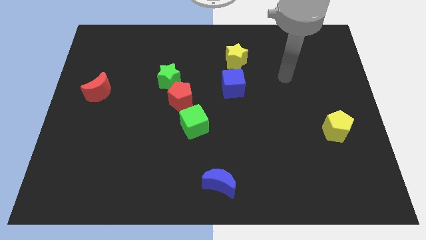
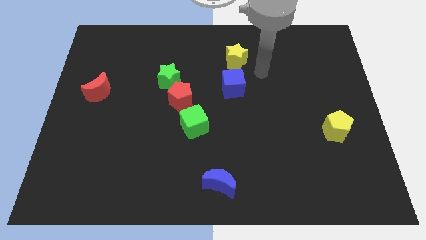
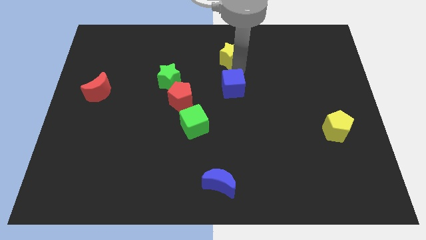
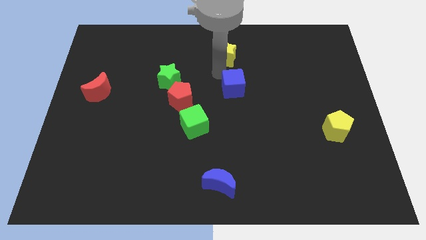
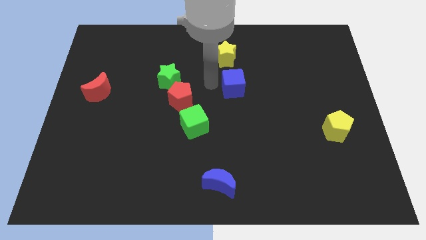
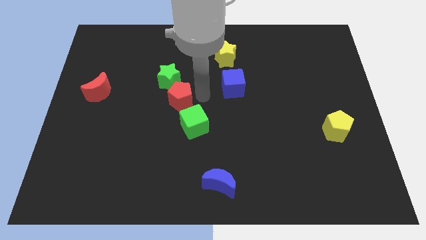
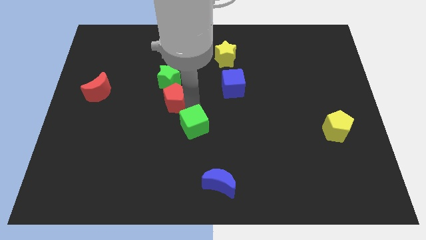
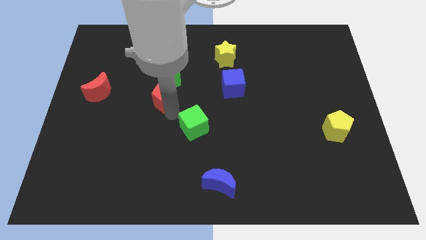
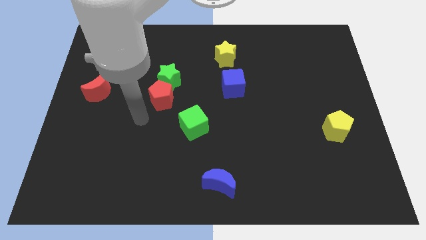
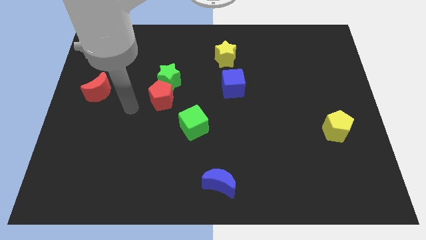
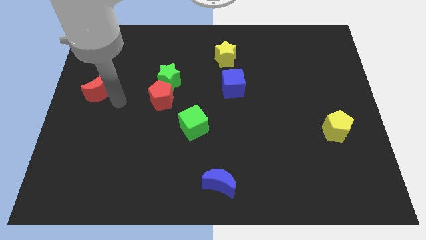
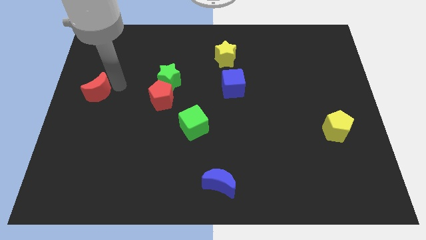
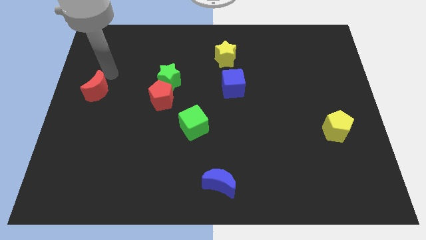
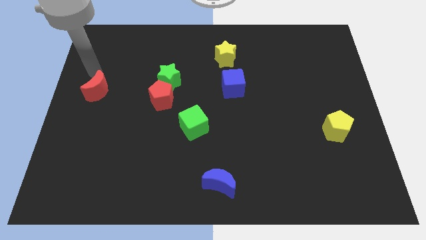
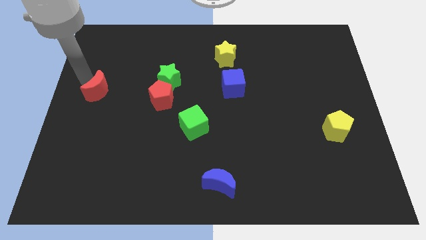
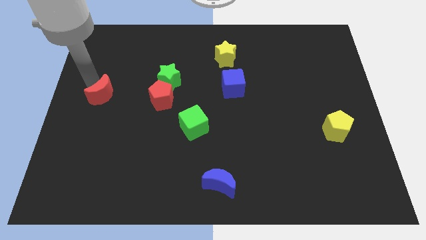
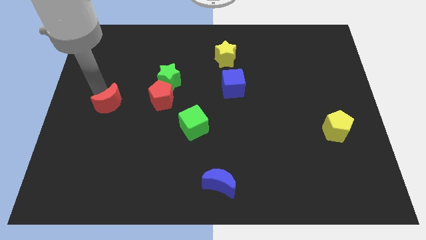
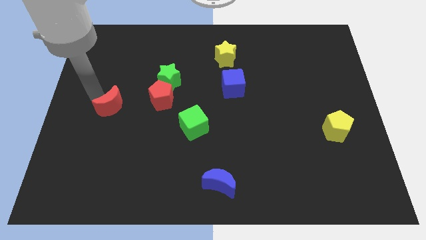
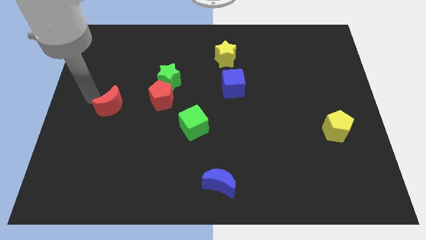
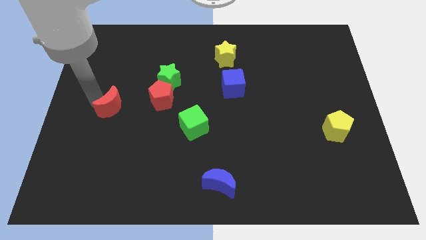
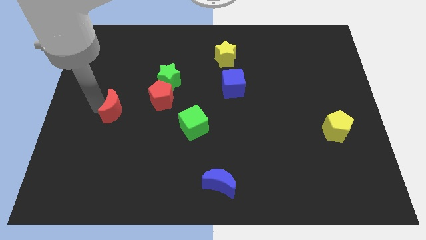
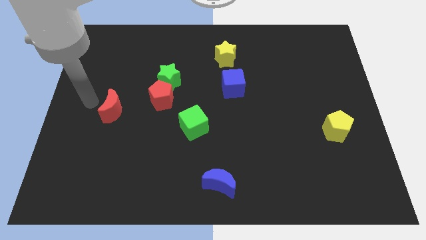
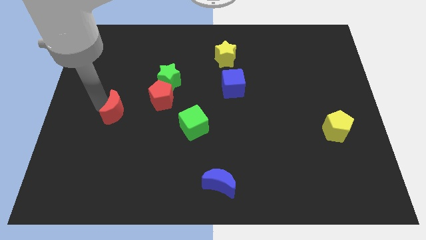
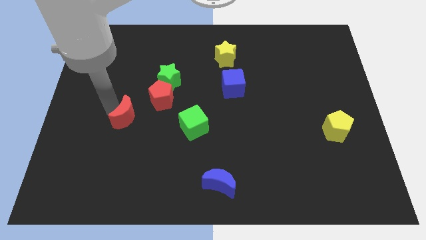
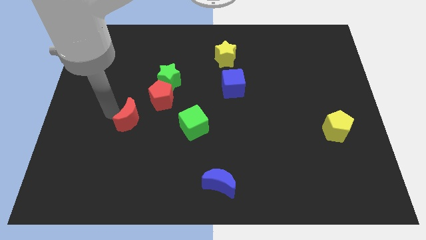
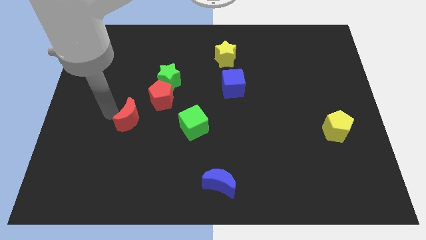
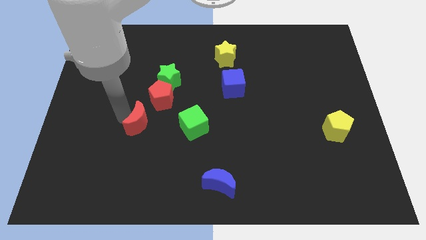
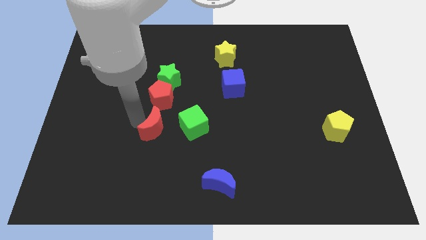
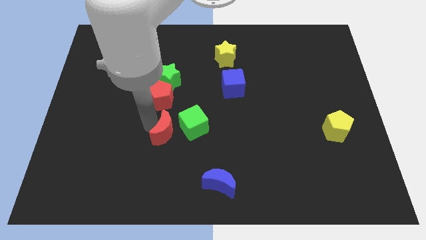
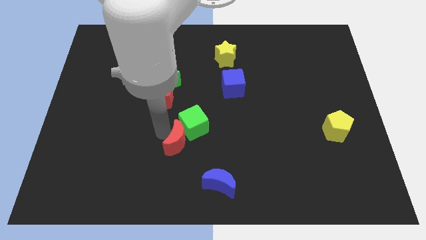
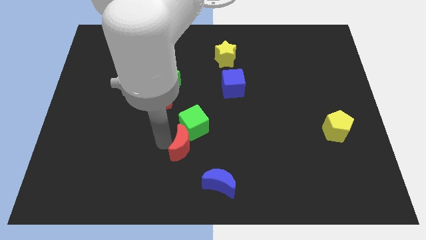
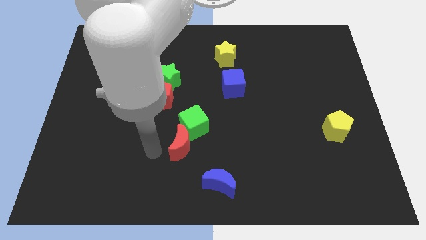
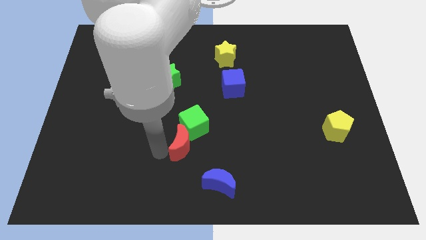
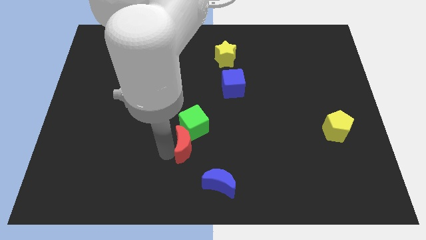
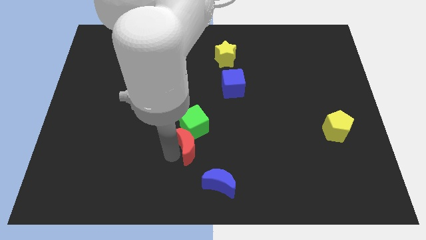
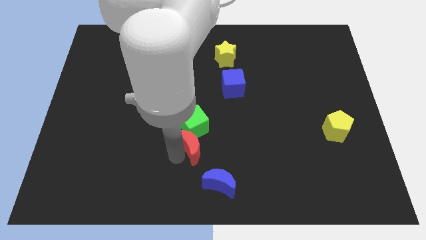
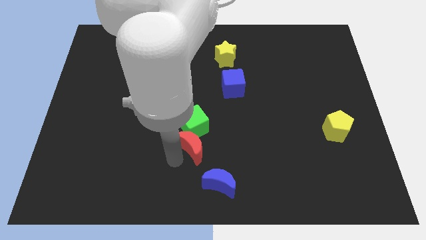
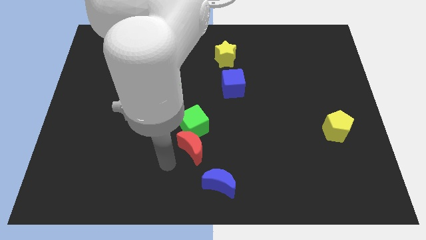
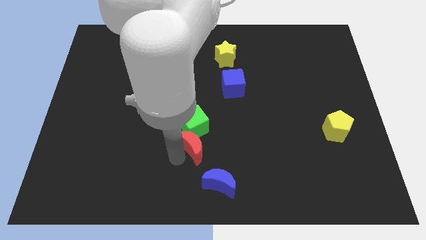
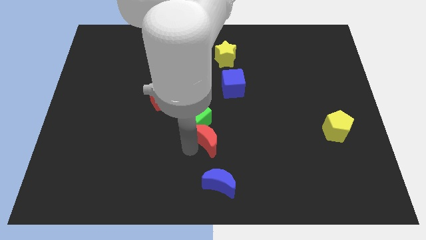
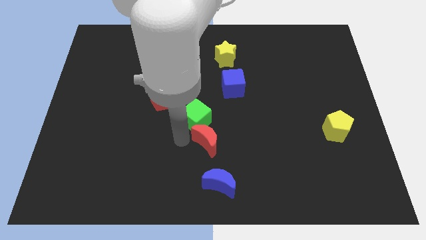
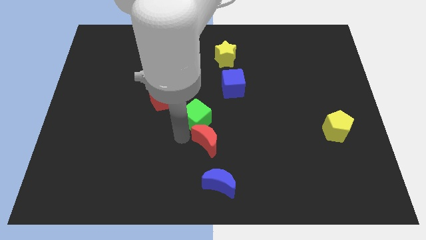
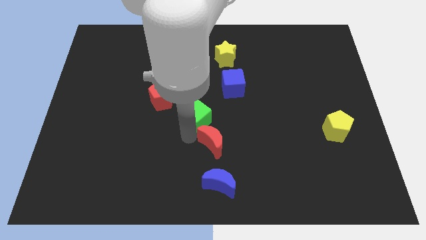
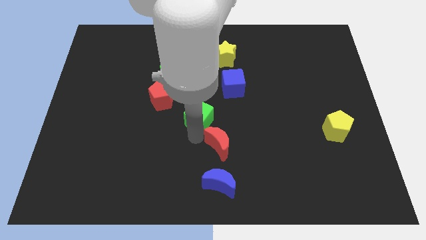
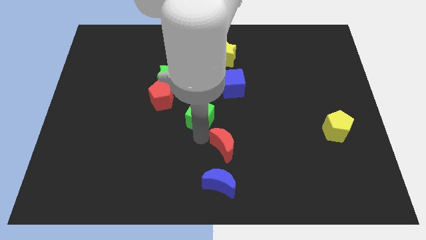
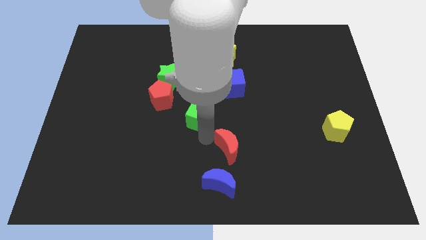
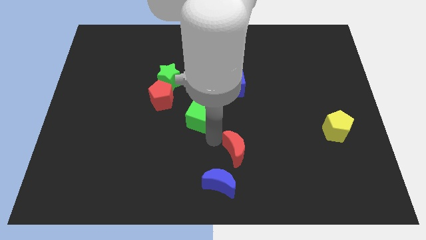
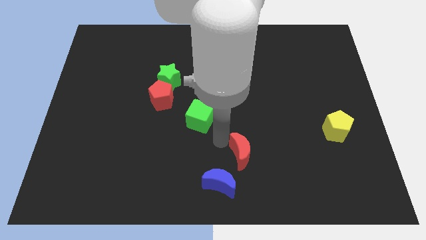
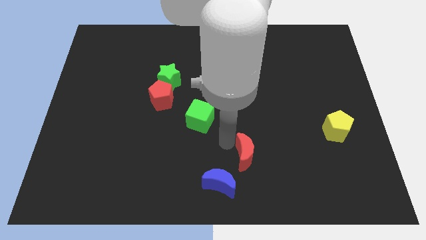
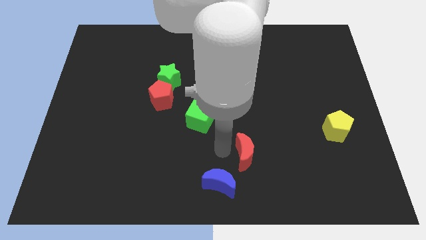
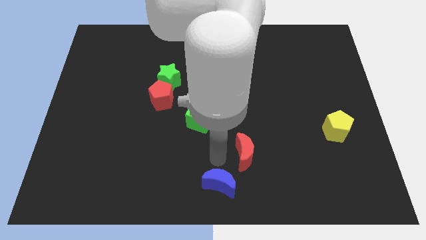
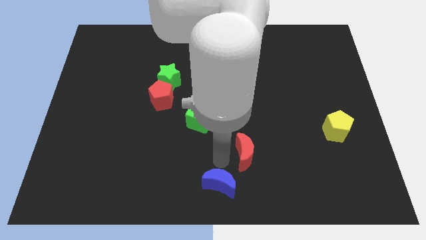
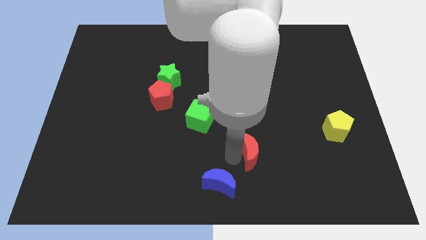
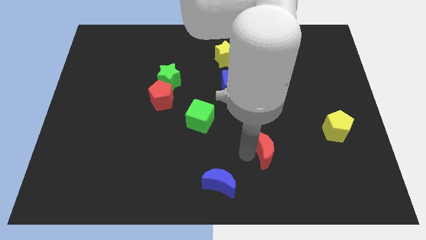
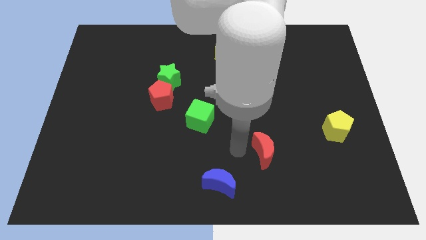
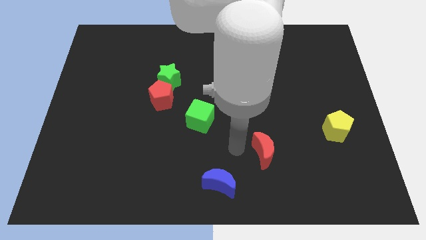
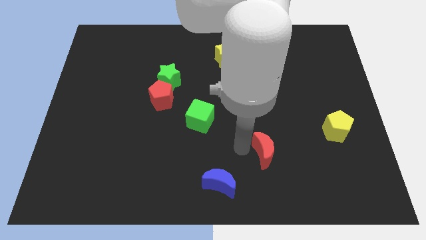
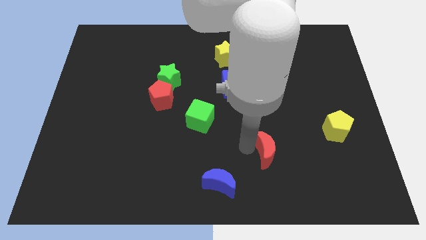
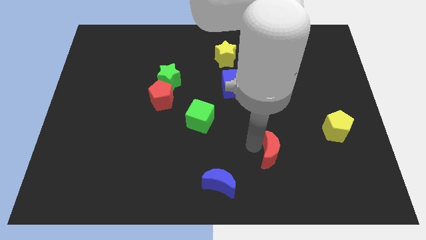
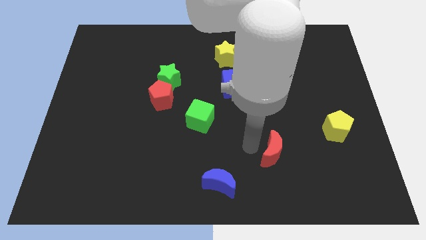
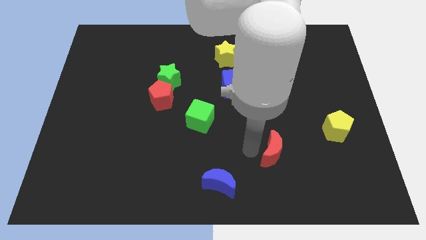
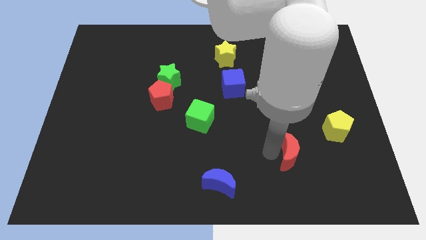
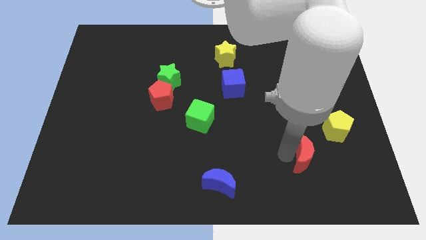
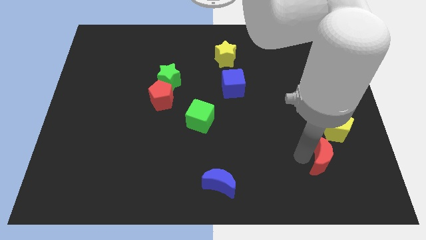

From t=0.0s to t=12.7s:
put the red moon to the bottom of the yellow pentagon

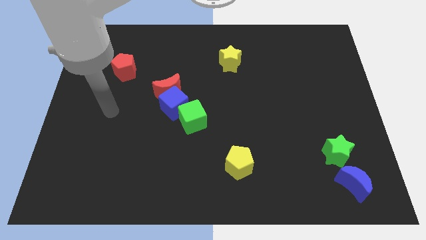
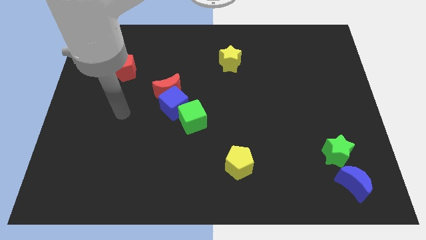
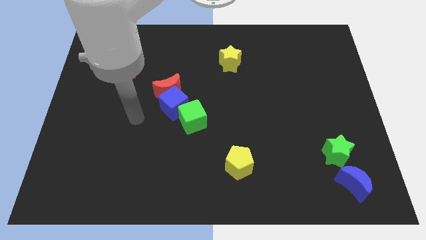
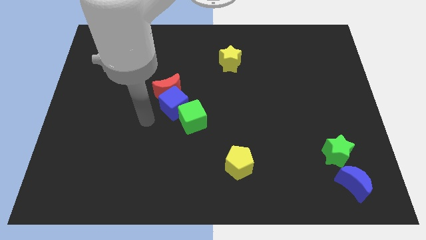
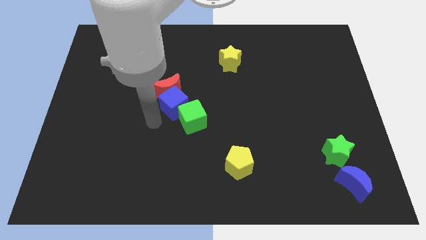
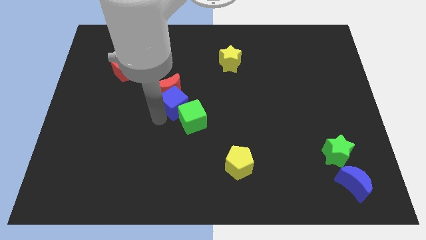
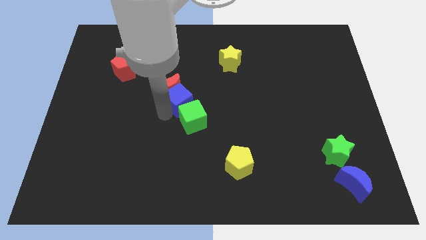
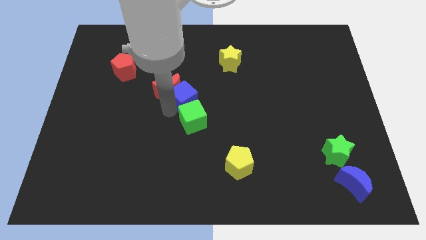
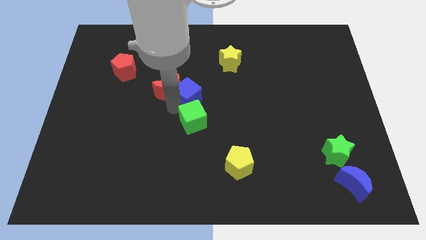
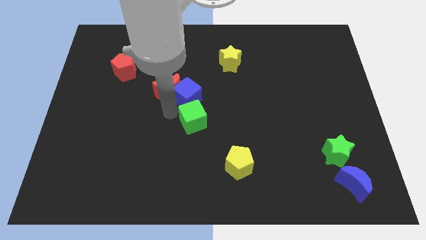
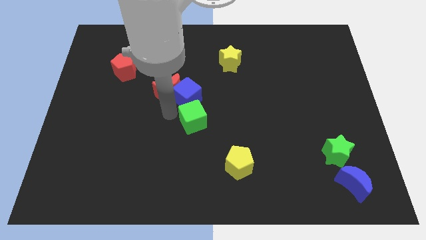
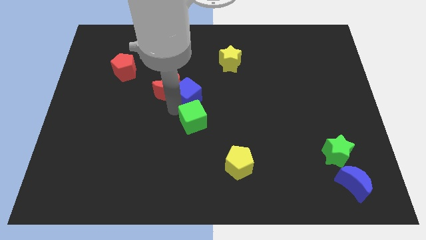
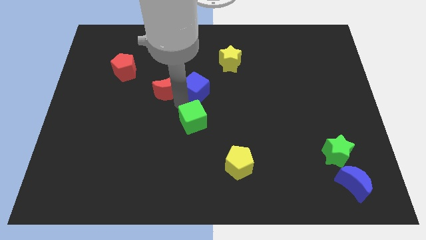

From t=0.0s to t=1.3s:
slide the blue cube diagonally down and to the left of the yellow star
